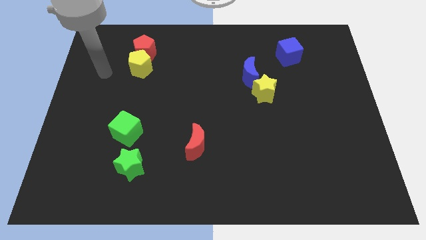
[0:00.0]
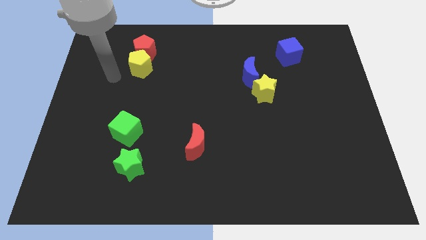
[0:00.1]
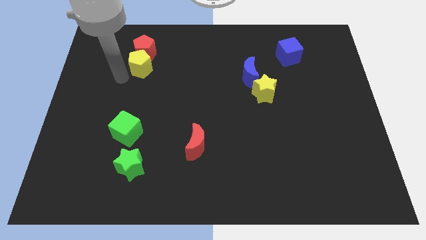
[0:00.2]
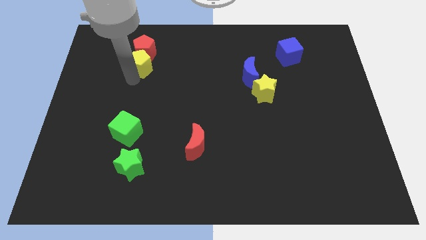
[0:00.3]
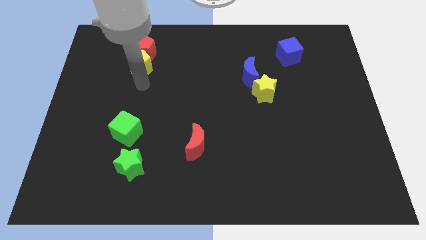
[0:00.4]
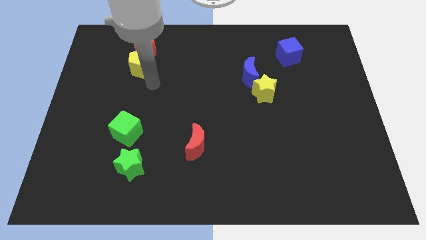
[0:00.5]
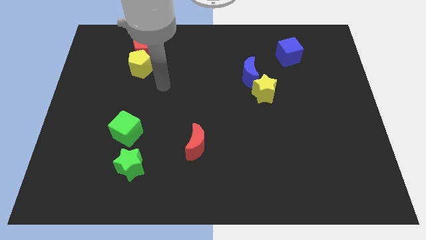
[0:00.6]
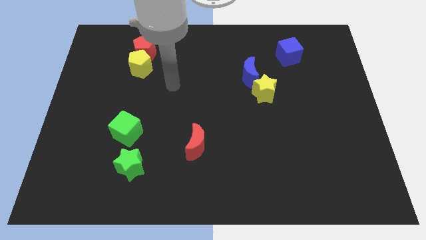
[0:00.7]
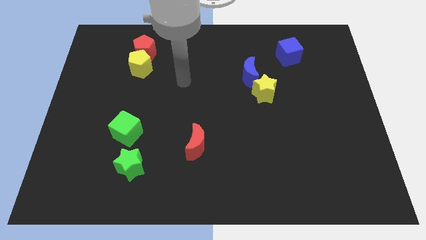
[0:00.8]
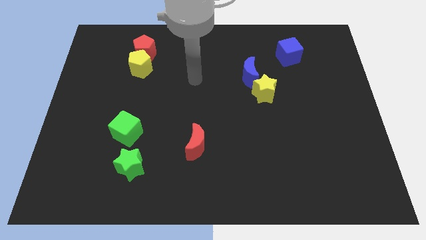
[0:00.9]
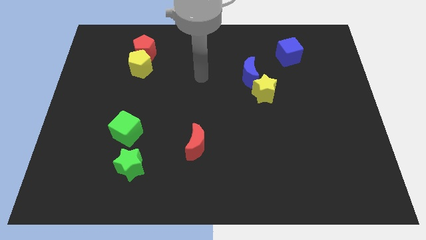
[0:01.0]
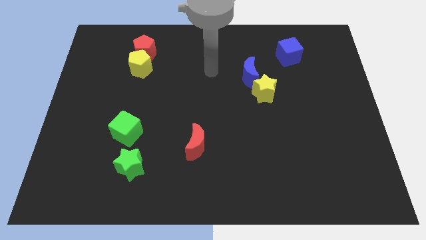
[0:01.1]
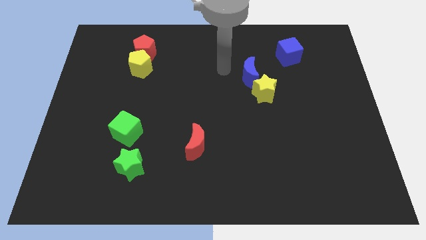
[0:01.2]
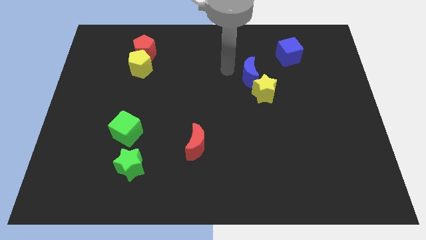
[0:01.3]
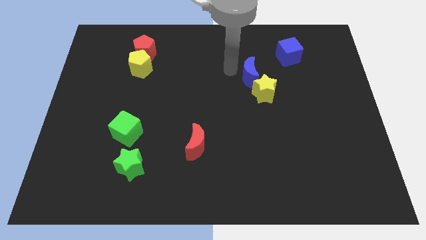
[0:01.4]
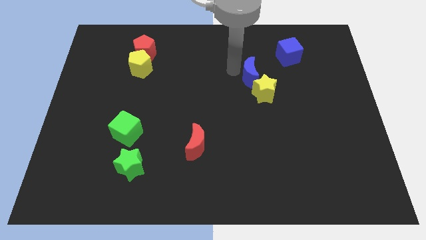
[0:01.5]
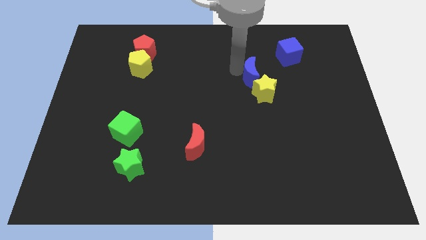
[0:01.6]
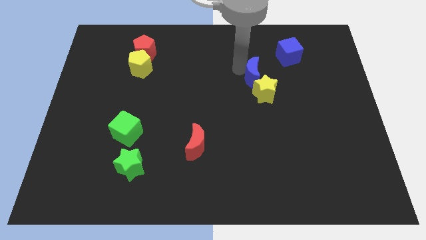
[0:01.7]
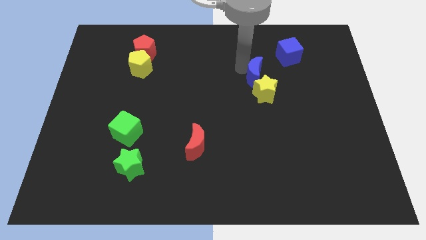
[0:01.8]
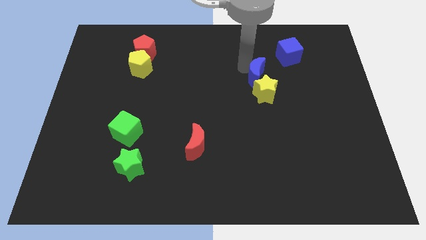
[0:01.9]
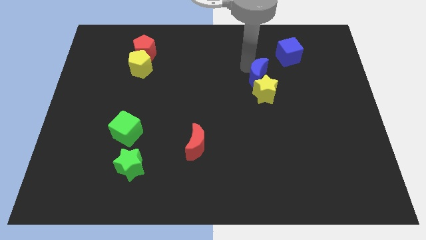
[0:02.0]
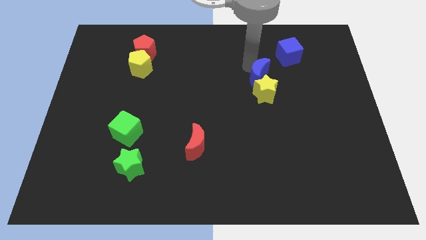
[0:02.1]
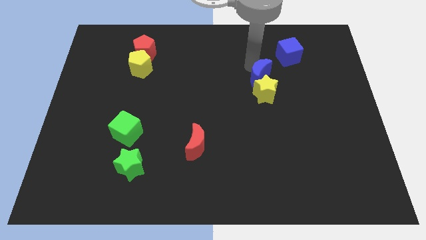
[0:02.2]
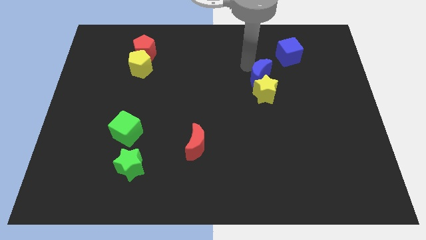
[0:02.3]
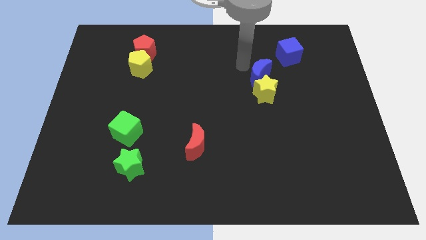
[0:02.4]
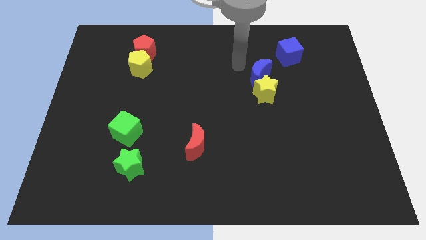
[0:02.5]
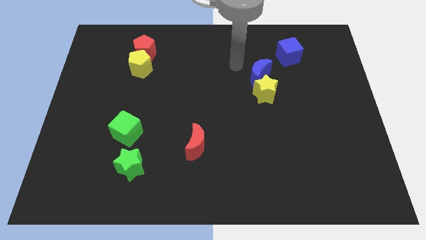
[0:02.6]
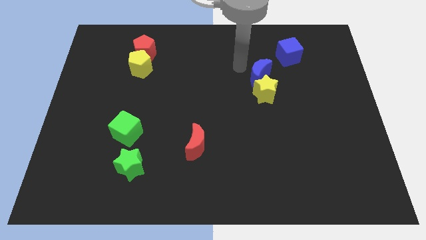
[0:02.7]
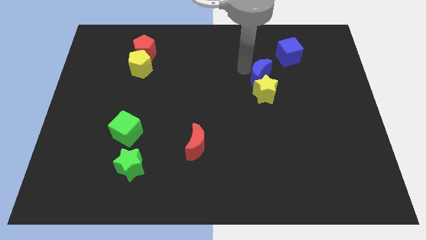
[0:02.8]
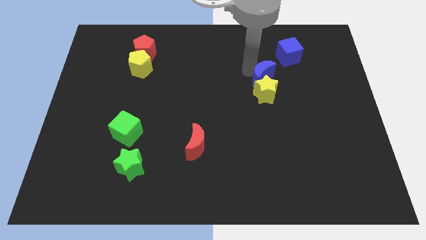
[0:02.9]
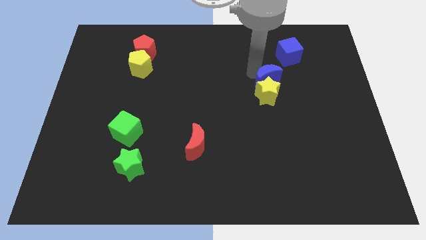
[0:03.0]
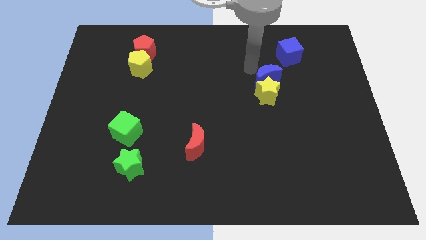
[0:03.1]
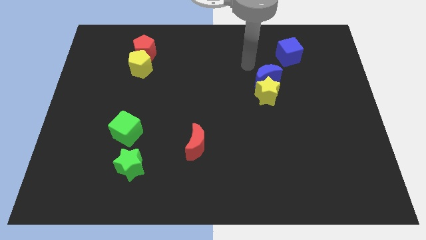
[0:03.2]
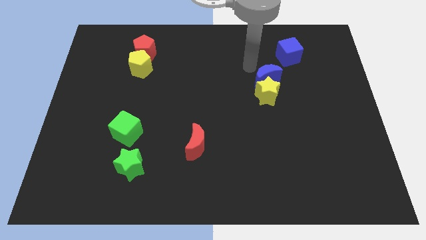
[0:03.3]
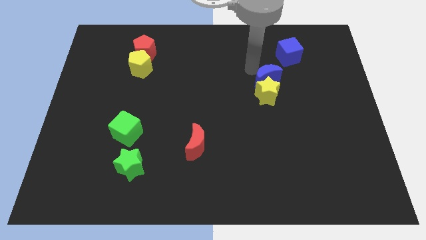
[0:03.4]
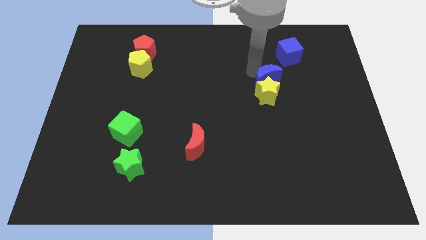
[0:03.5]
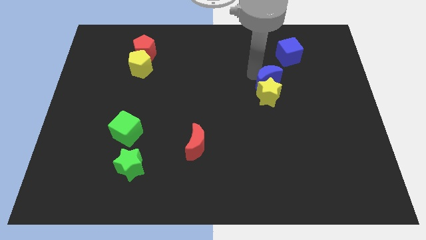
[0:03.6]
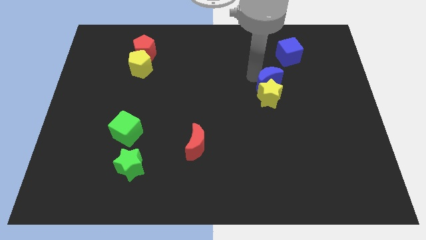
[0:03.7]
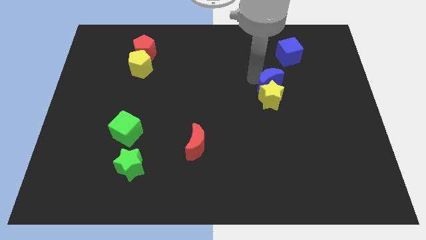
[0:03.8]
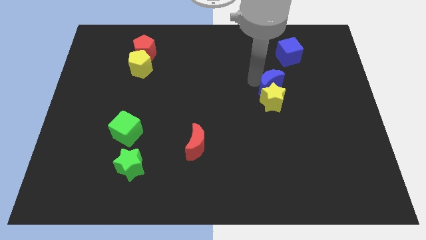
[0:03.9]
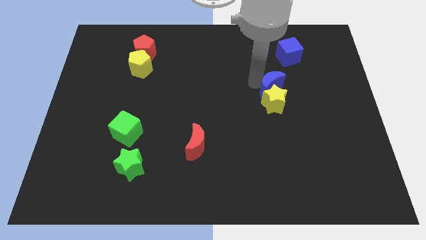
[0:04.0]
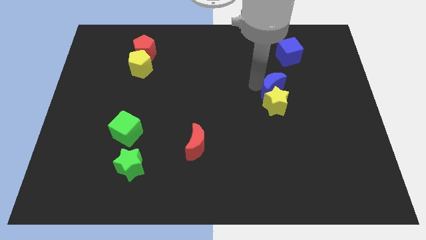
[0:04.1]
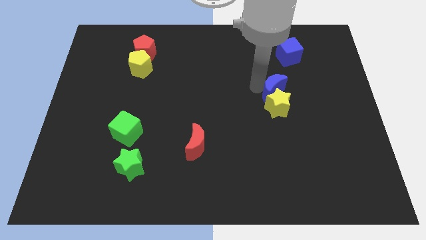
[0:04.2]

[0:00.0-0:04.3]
slide the blue moon a little down and to the right diagonally

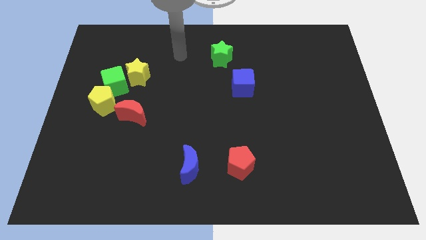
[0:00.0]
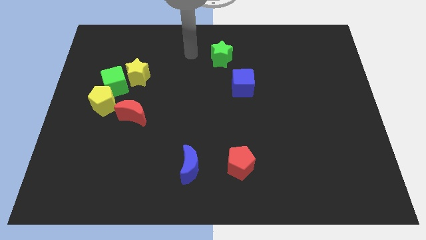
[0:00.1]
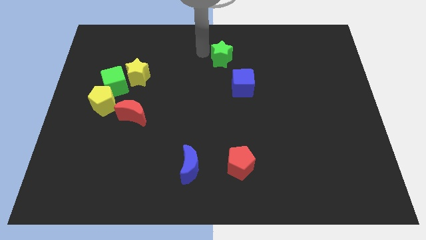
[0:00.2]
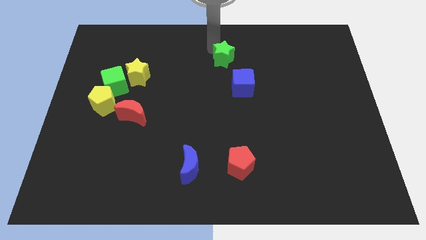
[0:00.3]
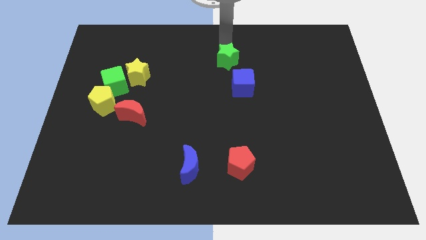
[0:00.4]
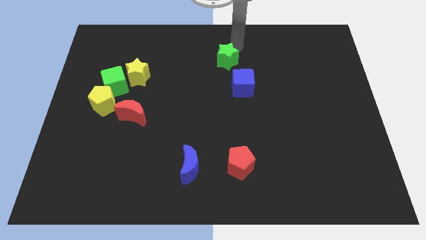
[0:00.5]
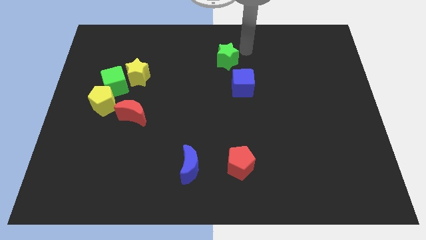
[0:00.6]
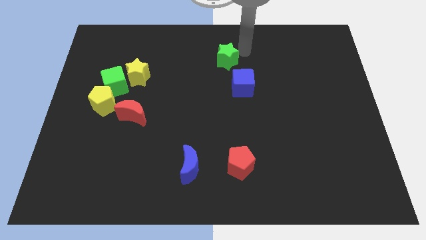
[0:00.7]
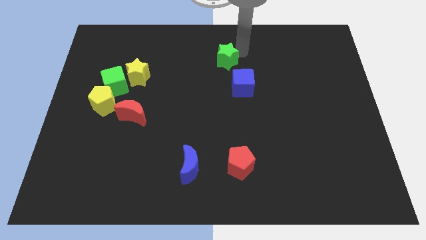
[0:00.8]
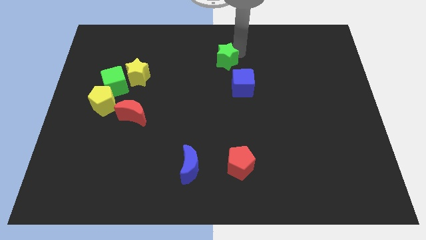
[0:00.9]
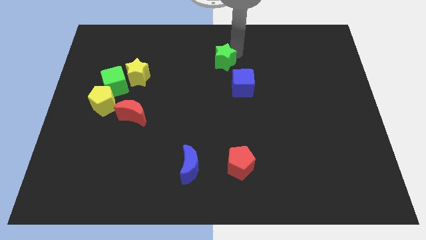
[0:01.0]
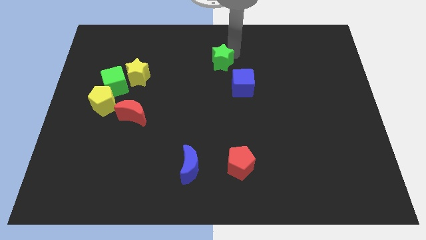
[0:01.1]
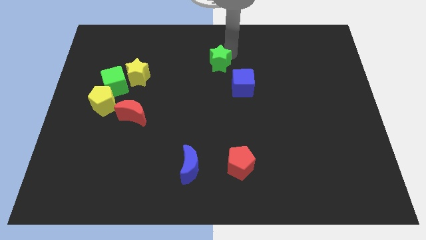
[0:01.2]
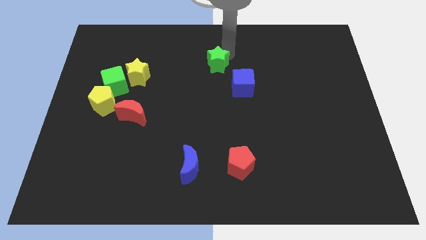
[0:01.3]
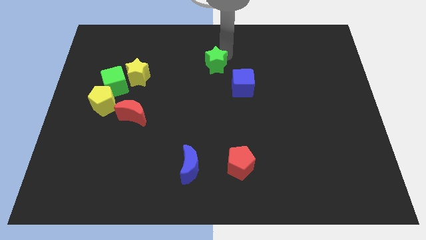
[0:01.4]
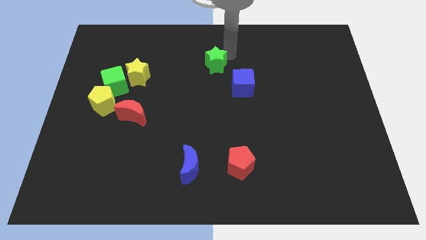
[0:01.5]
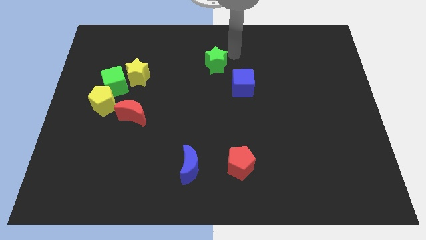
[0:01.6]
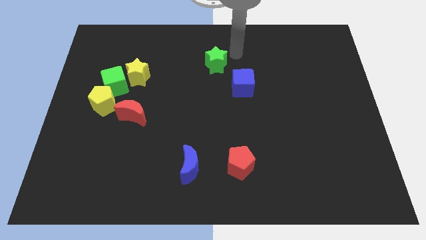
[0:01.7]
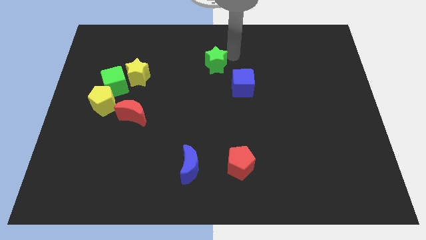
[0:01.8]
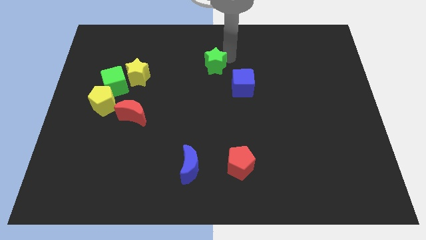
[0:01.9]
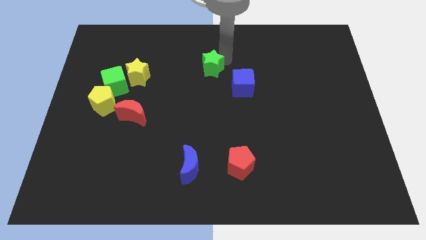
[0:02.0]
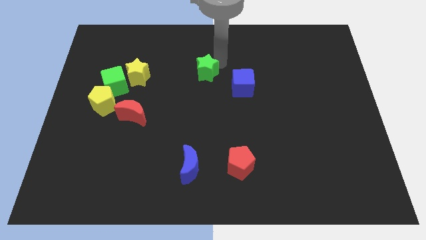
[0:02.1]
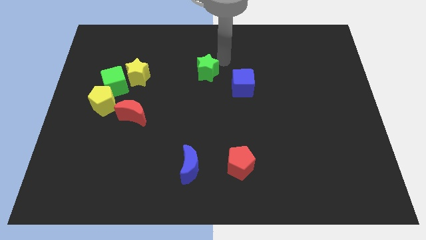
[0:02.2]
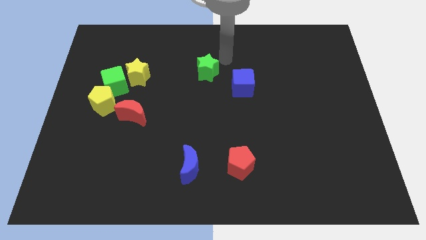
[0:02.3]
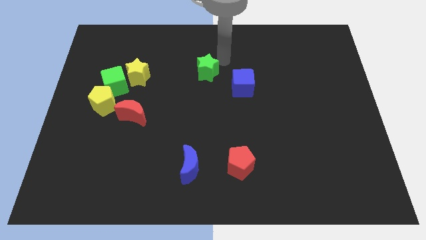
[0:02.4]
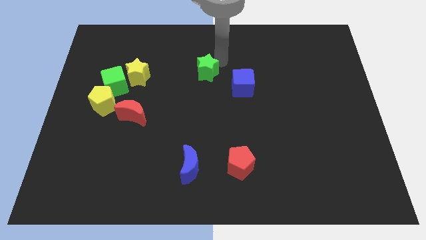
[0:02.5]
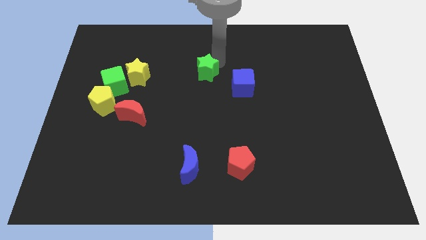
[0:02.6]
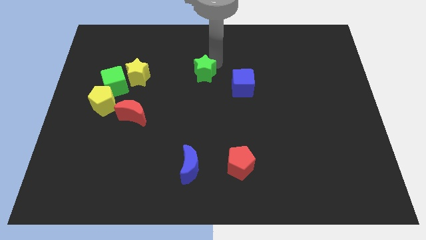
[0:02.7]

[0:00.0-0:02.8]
slide the green star down and to the left diagonally somewhat

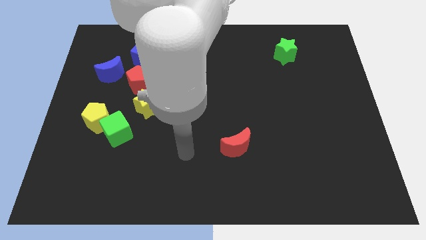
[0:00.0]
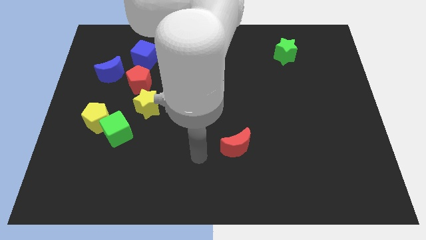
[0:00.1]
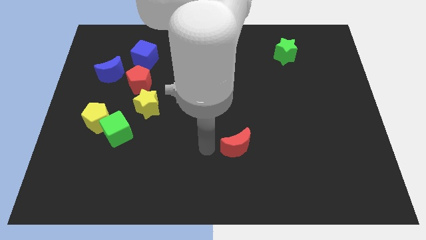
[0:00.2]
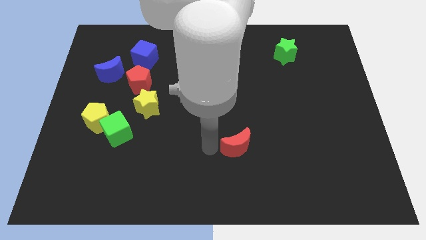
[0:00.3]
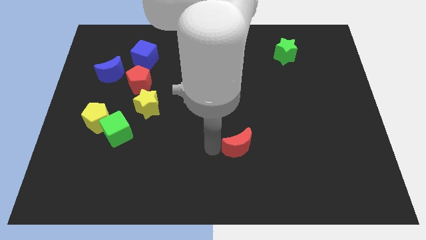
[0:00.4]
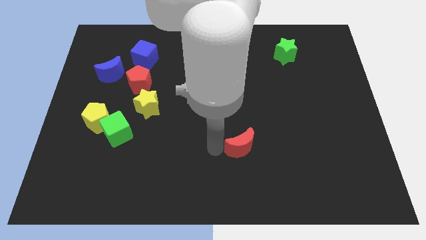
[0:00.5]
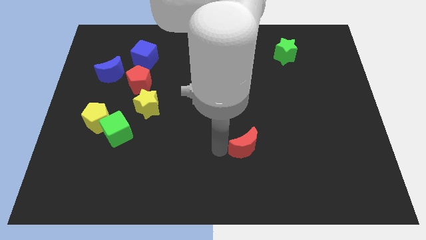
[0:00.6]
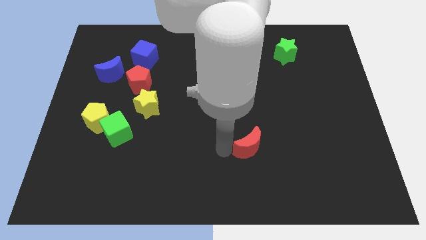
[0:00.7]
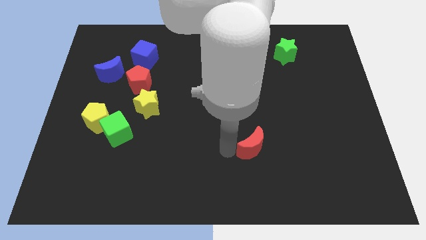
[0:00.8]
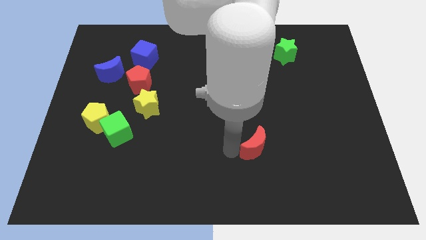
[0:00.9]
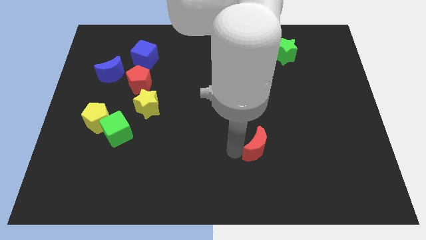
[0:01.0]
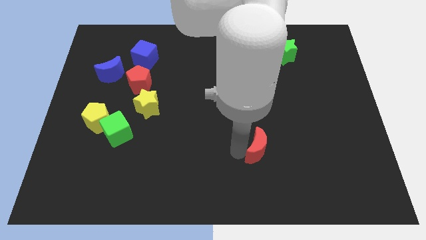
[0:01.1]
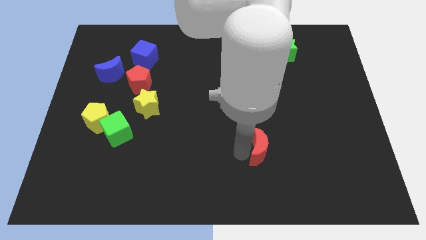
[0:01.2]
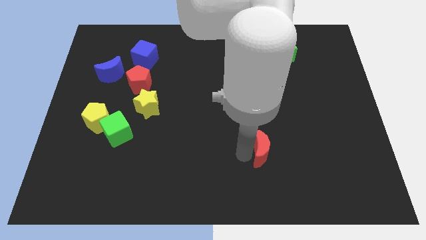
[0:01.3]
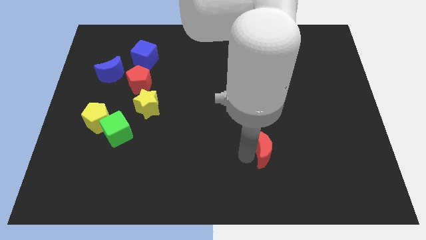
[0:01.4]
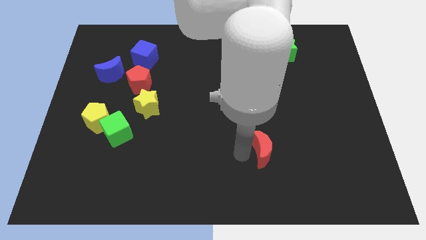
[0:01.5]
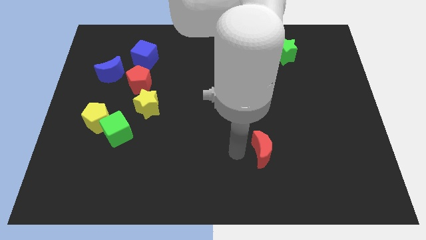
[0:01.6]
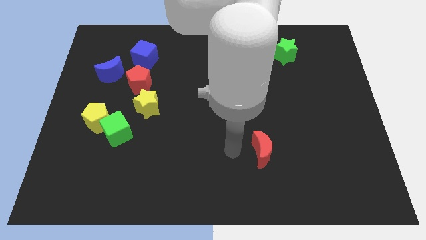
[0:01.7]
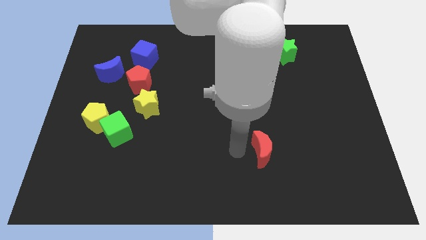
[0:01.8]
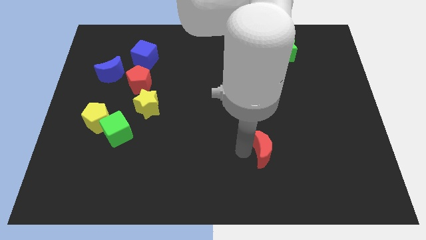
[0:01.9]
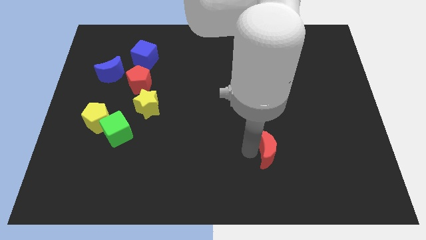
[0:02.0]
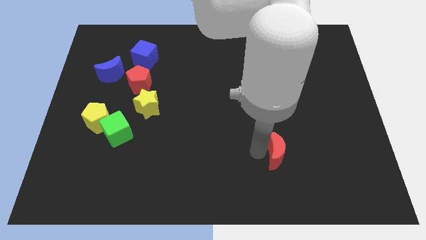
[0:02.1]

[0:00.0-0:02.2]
push the red moon slightly to the right
